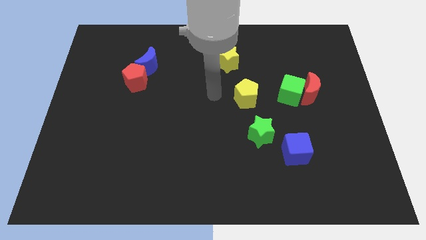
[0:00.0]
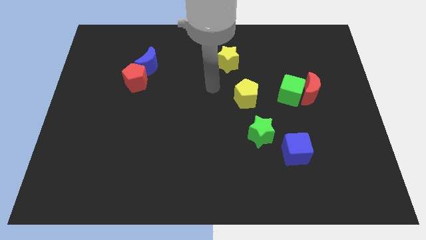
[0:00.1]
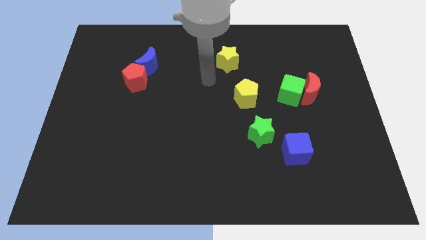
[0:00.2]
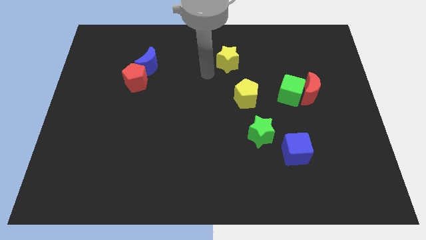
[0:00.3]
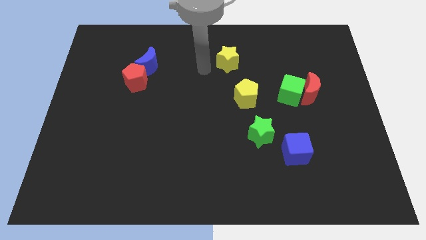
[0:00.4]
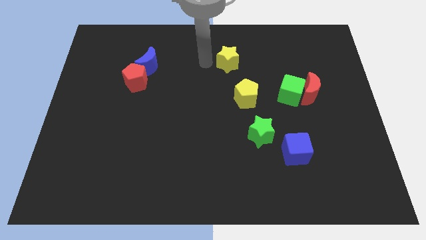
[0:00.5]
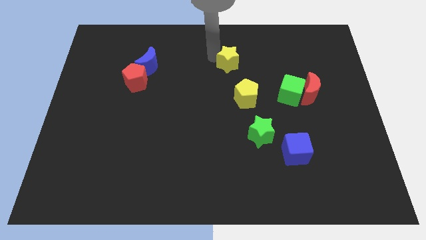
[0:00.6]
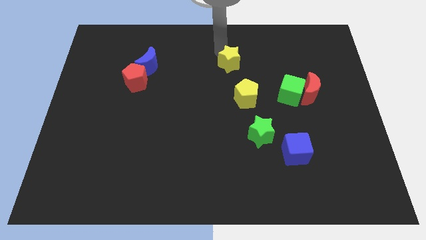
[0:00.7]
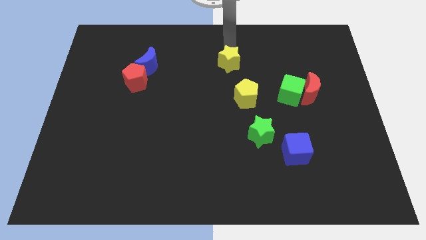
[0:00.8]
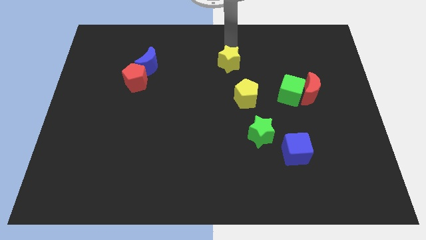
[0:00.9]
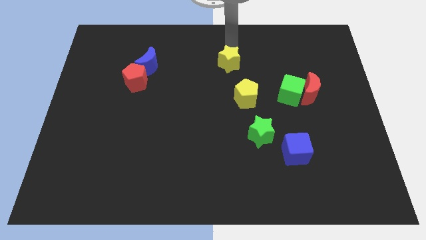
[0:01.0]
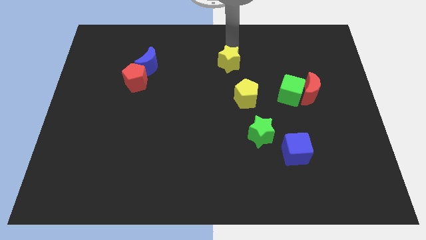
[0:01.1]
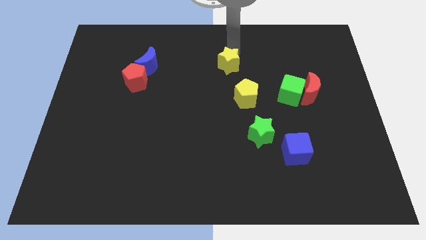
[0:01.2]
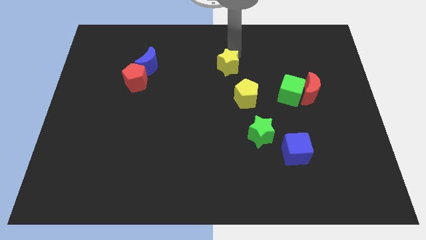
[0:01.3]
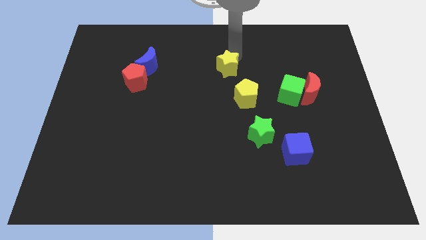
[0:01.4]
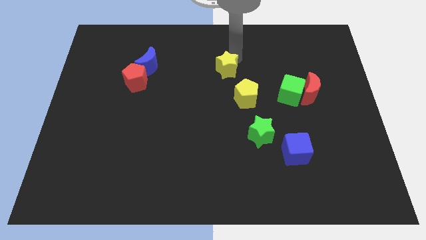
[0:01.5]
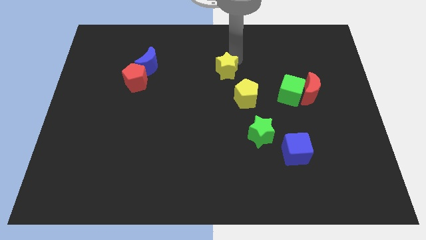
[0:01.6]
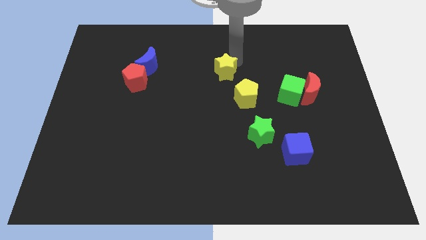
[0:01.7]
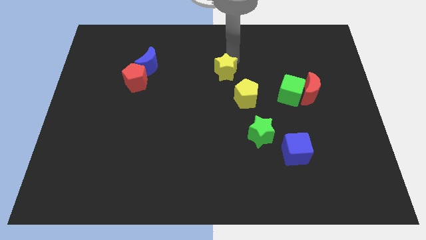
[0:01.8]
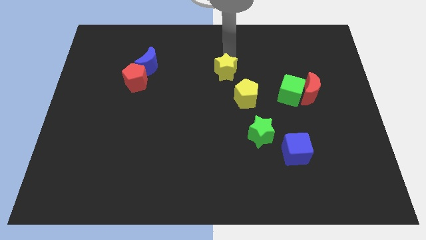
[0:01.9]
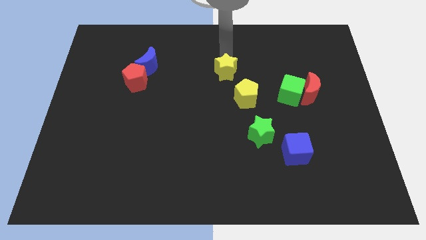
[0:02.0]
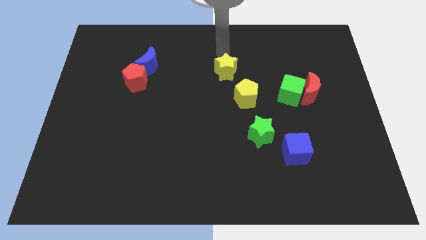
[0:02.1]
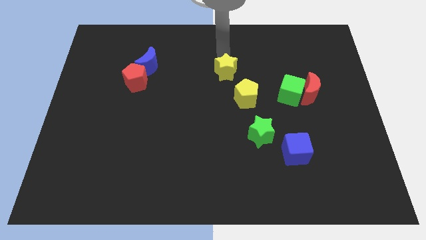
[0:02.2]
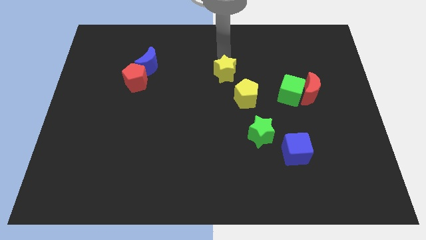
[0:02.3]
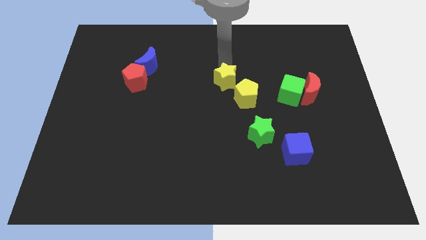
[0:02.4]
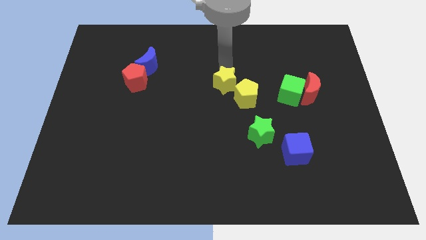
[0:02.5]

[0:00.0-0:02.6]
slightly slide the yellow star downwards

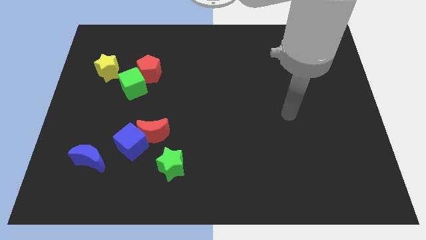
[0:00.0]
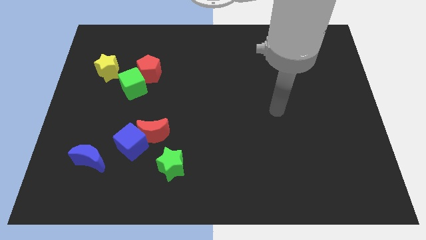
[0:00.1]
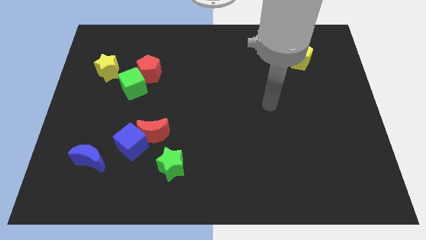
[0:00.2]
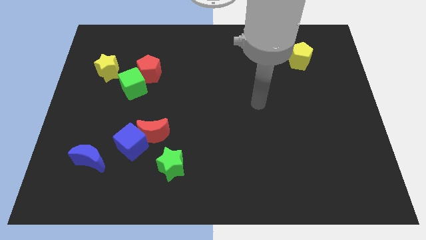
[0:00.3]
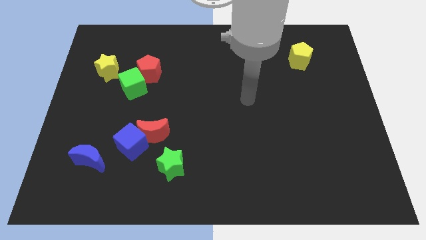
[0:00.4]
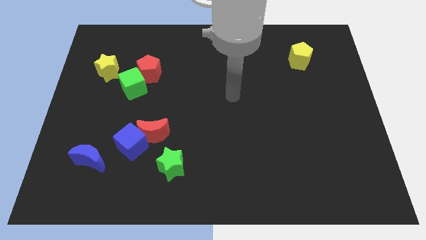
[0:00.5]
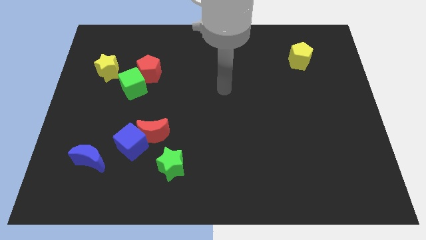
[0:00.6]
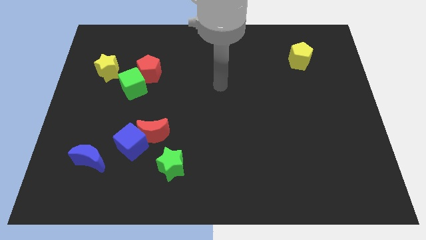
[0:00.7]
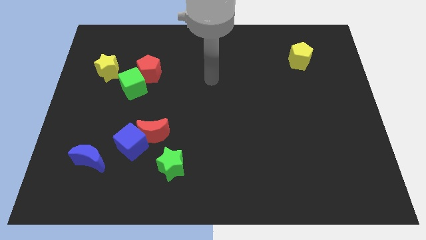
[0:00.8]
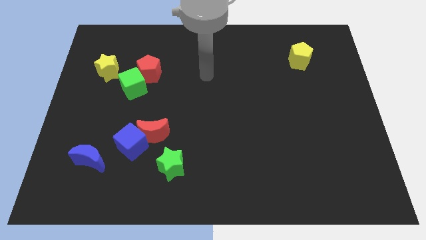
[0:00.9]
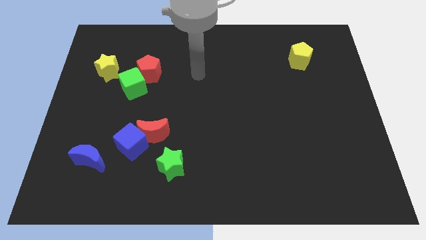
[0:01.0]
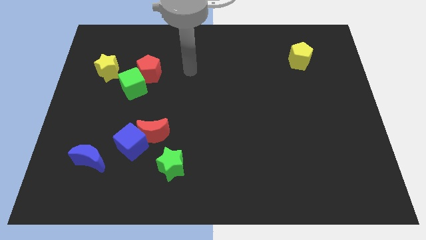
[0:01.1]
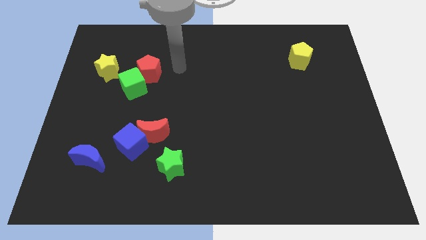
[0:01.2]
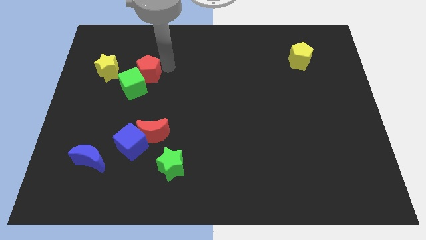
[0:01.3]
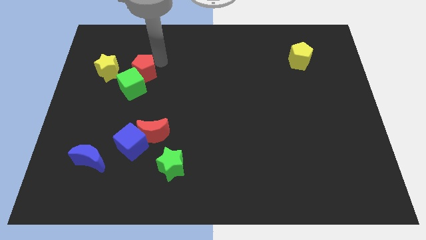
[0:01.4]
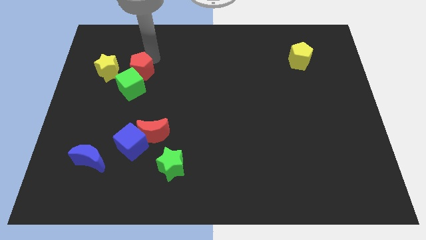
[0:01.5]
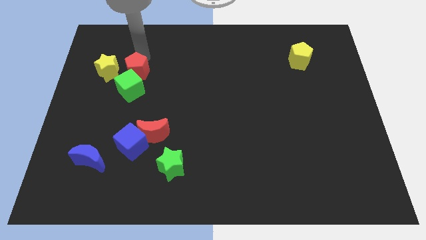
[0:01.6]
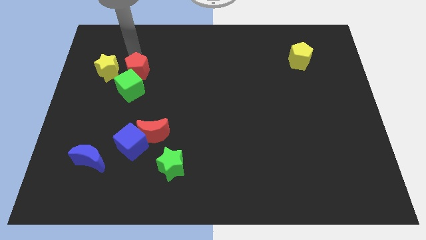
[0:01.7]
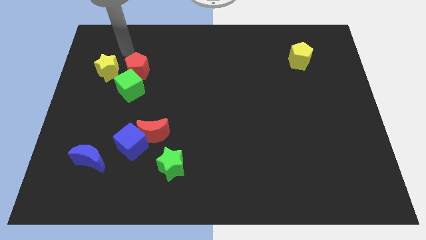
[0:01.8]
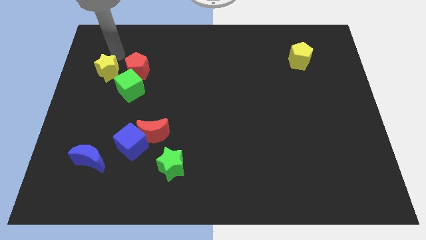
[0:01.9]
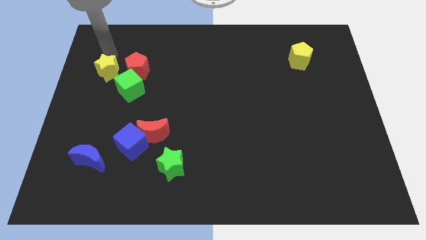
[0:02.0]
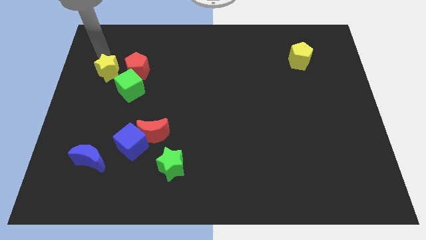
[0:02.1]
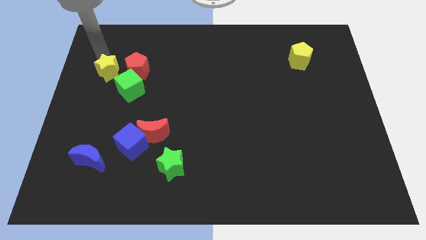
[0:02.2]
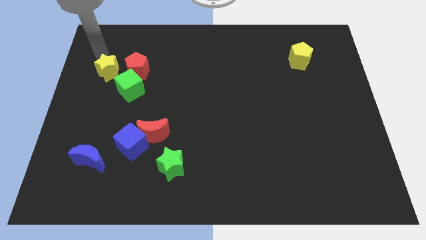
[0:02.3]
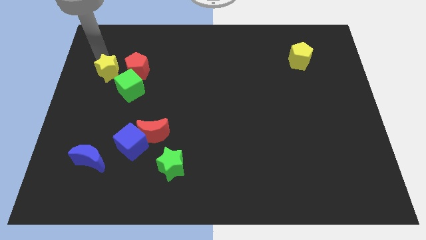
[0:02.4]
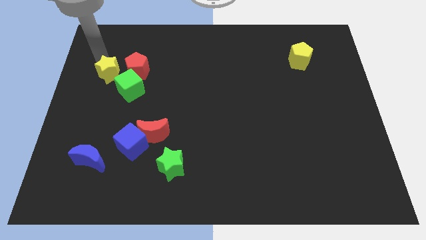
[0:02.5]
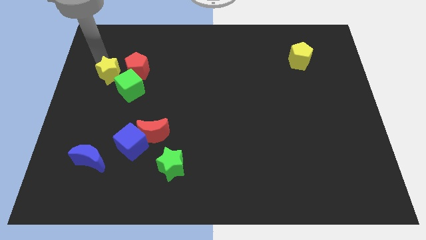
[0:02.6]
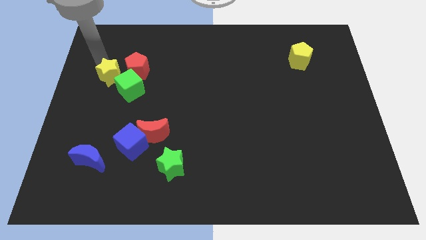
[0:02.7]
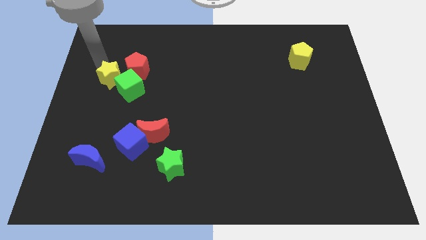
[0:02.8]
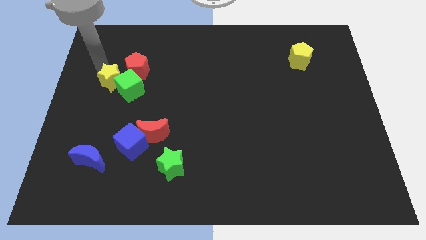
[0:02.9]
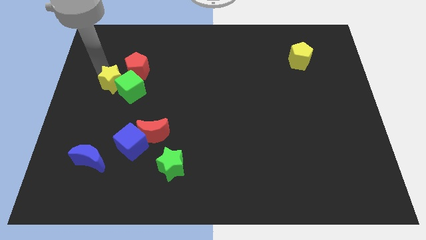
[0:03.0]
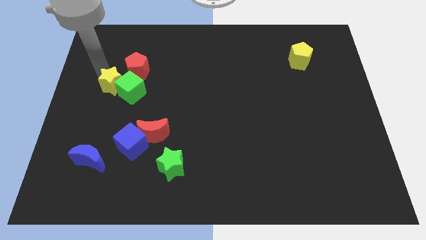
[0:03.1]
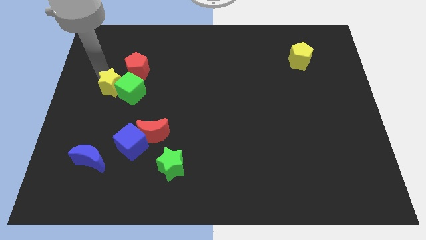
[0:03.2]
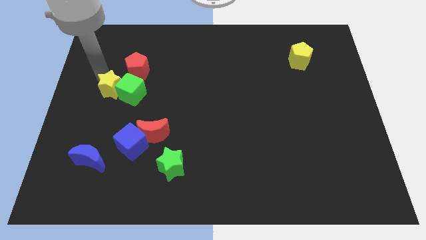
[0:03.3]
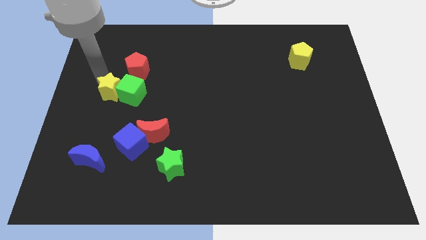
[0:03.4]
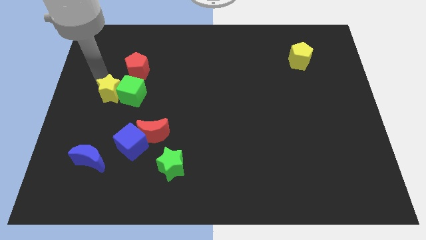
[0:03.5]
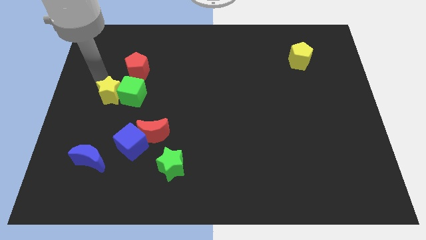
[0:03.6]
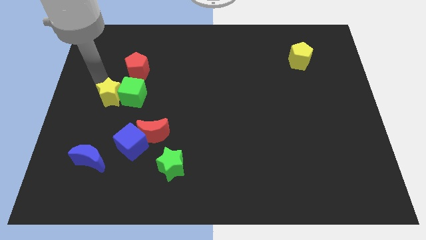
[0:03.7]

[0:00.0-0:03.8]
slightly move the yellow star down and to the right diagonally

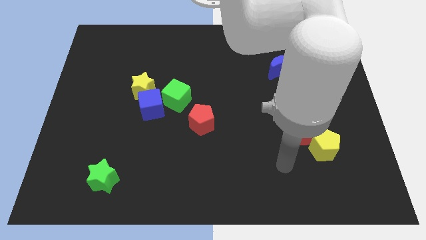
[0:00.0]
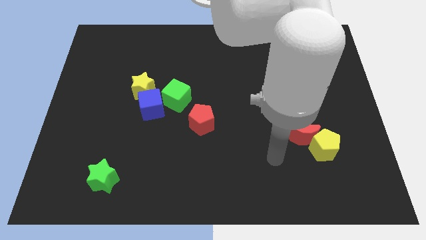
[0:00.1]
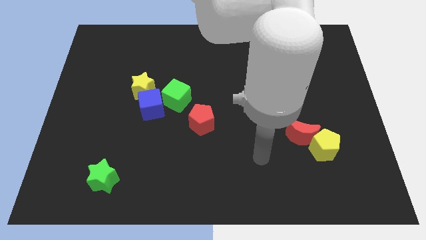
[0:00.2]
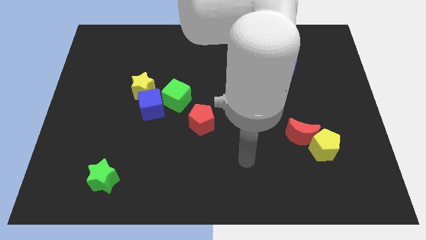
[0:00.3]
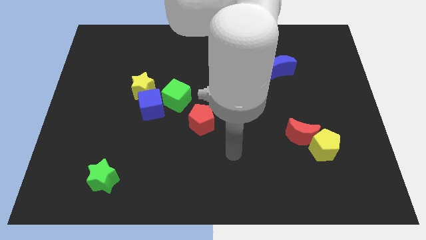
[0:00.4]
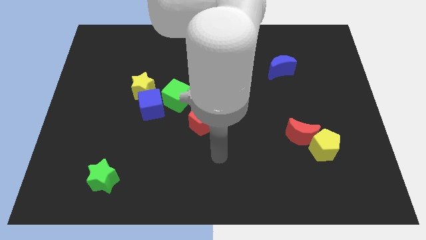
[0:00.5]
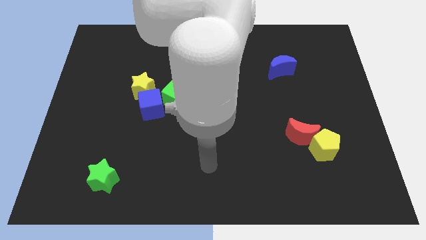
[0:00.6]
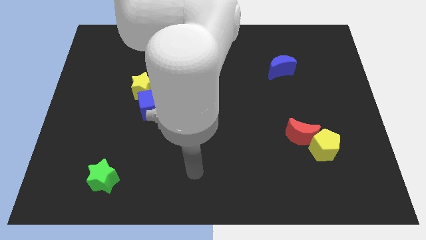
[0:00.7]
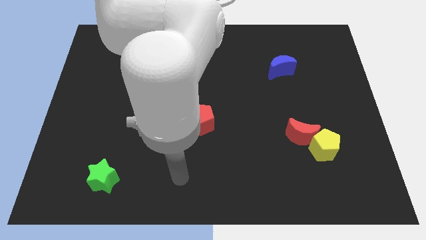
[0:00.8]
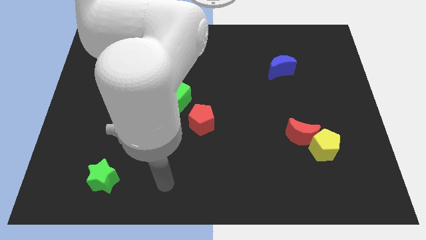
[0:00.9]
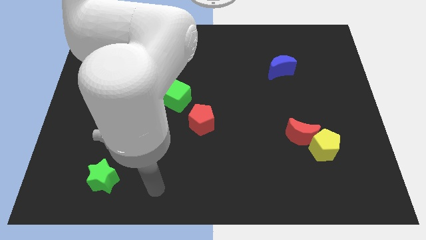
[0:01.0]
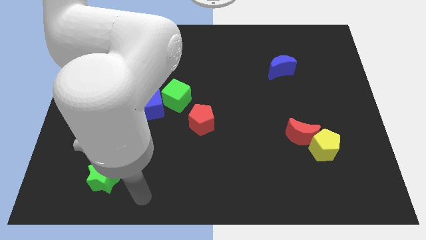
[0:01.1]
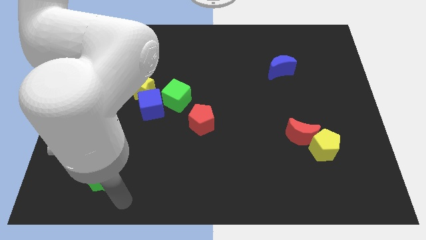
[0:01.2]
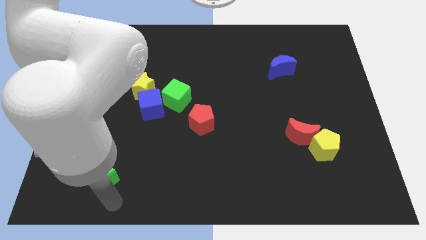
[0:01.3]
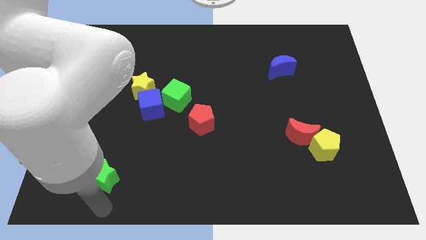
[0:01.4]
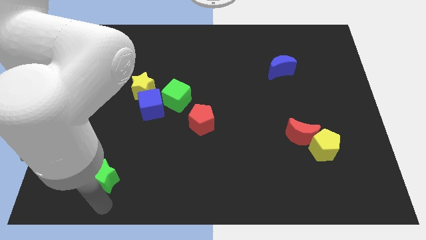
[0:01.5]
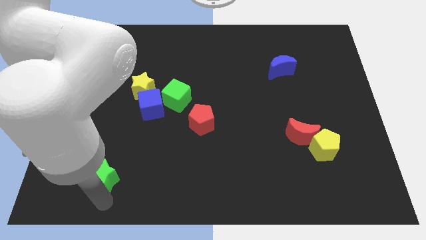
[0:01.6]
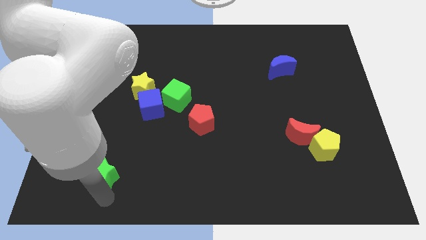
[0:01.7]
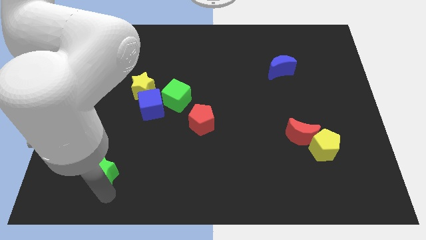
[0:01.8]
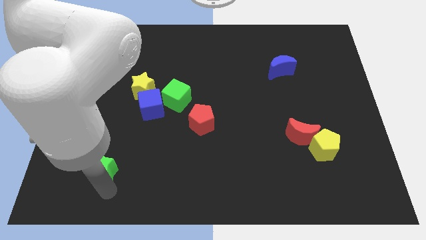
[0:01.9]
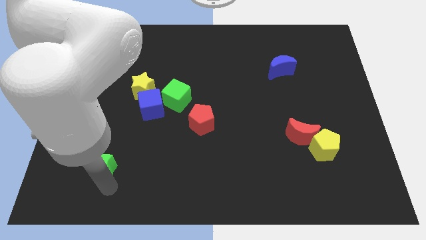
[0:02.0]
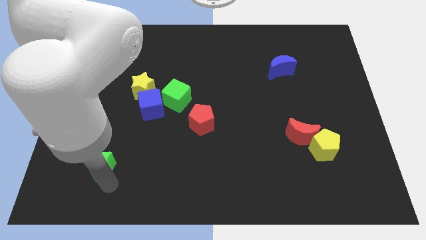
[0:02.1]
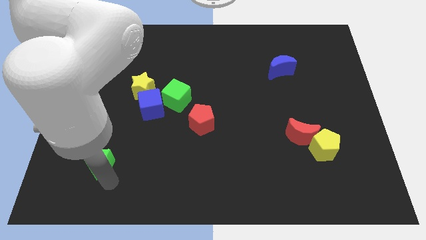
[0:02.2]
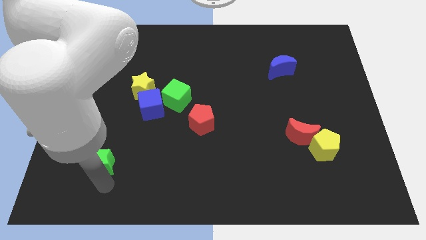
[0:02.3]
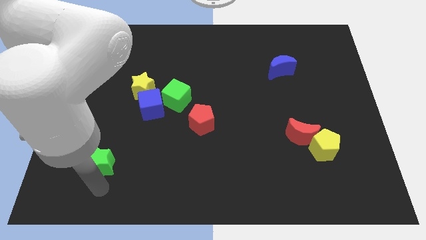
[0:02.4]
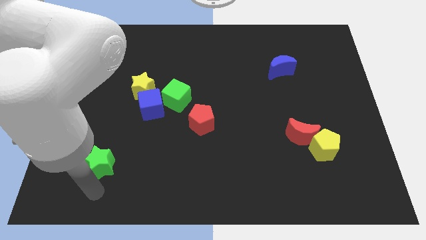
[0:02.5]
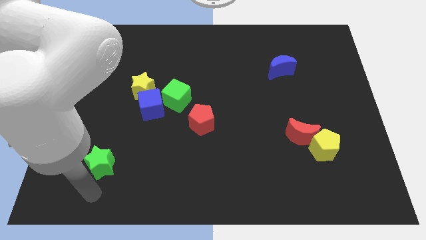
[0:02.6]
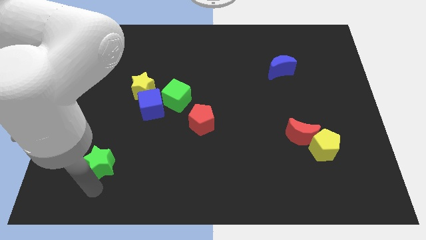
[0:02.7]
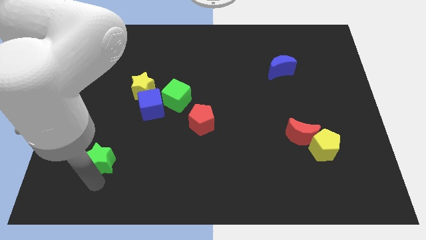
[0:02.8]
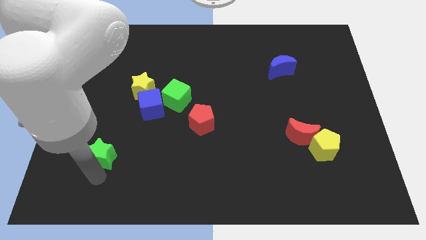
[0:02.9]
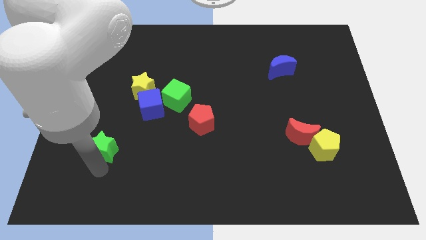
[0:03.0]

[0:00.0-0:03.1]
push the green star slightly up
